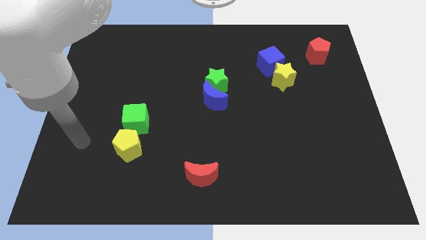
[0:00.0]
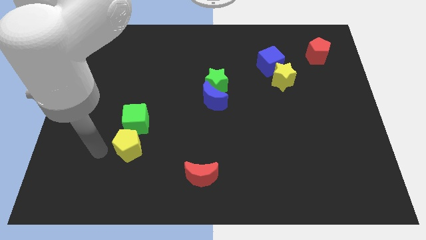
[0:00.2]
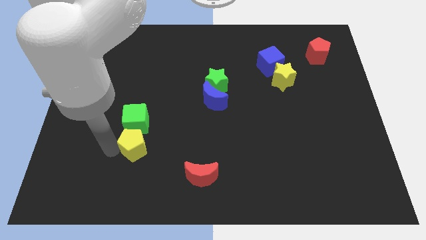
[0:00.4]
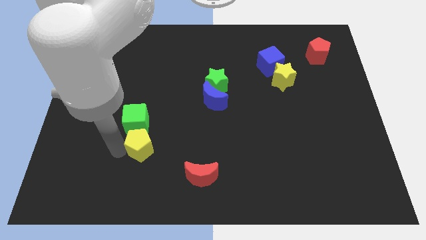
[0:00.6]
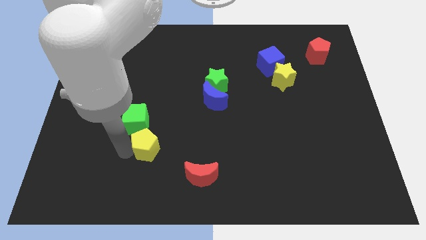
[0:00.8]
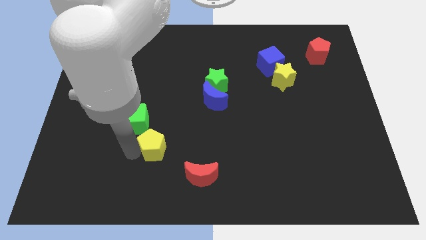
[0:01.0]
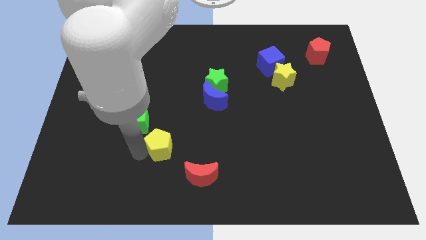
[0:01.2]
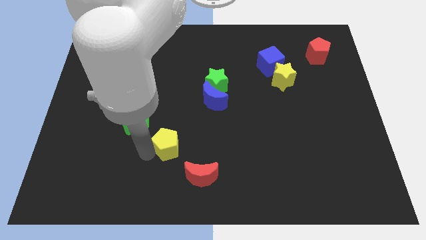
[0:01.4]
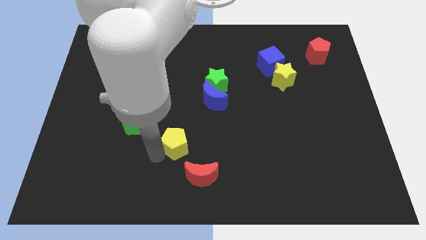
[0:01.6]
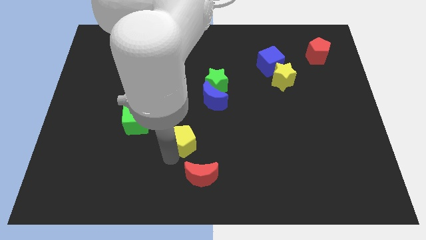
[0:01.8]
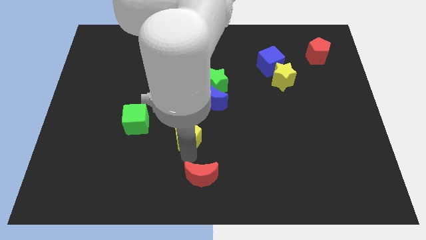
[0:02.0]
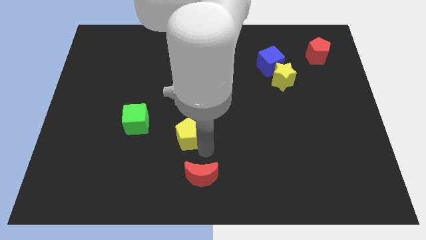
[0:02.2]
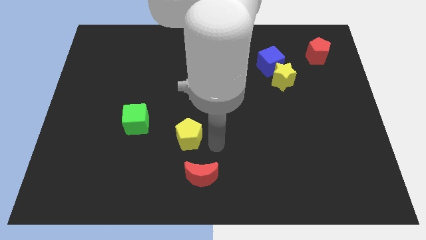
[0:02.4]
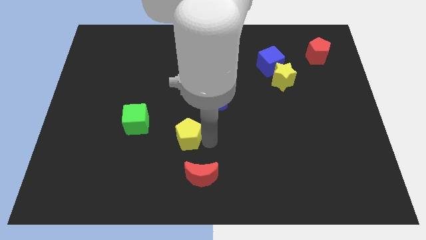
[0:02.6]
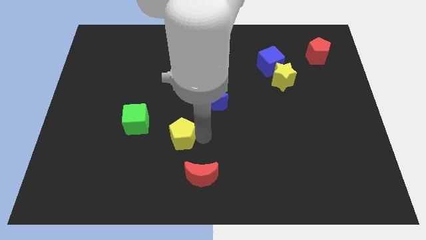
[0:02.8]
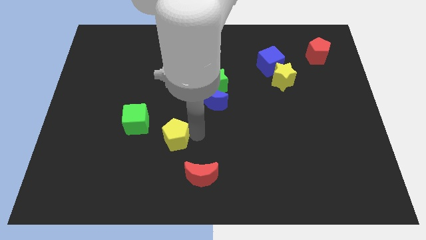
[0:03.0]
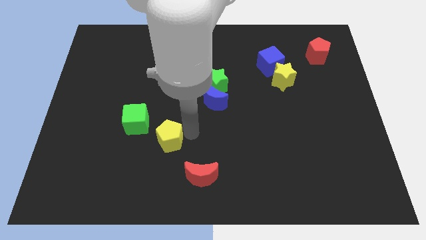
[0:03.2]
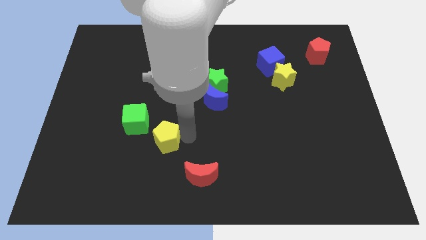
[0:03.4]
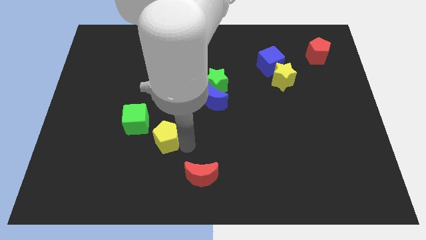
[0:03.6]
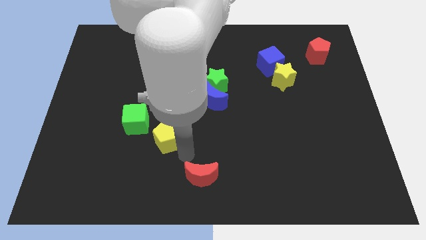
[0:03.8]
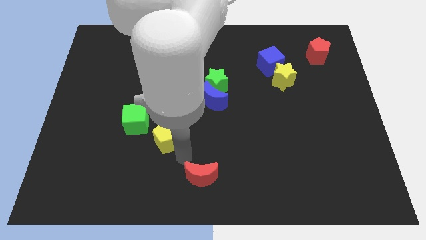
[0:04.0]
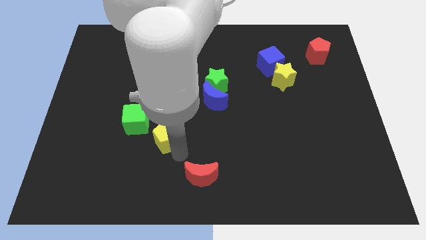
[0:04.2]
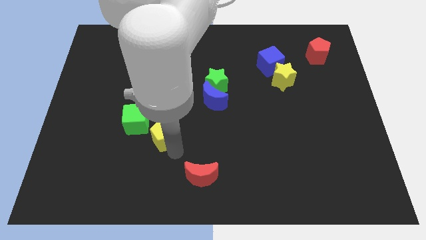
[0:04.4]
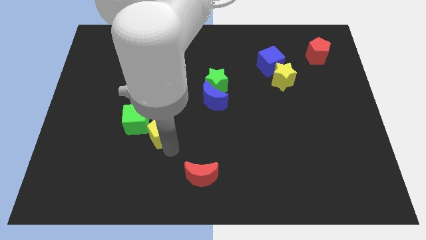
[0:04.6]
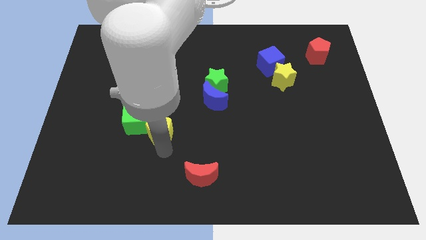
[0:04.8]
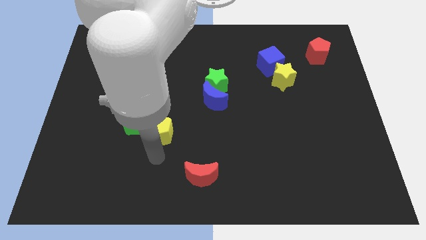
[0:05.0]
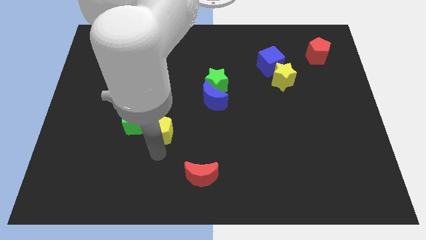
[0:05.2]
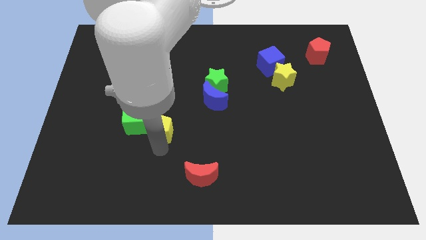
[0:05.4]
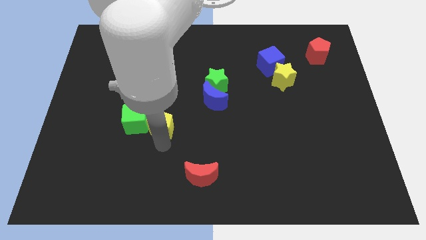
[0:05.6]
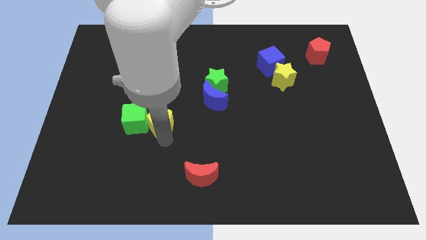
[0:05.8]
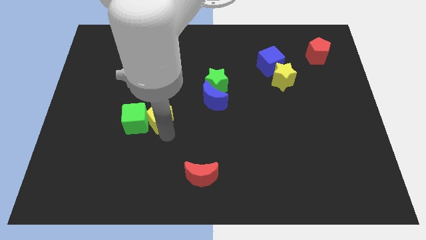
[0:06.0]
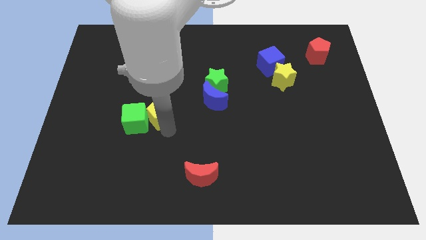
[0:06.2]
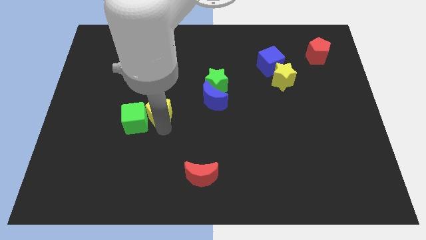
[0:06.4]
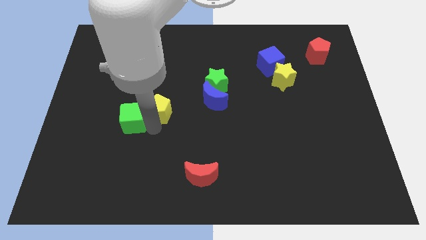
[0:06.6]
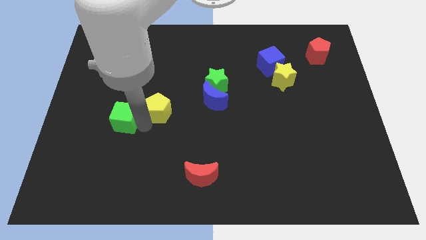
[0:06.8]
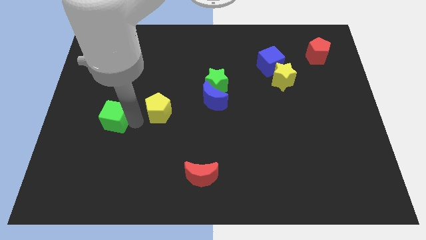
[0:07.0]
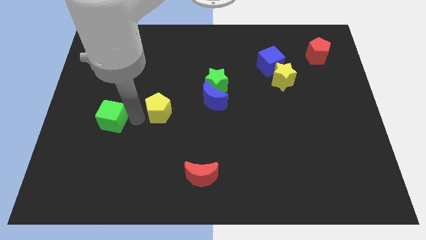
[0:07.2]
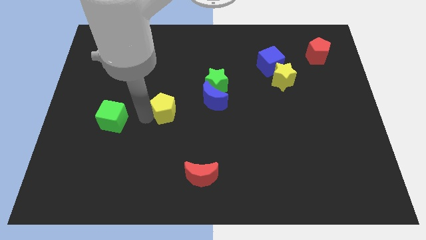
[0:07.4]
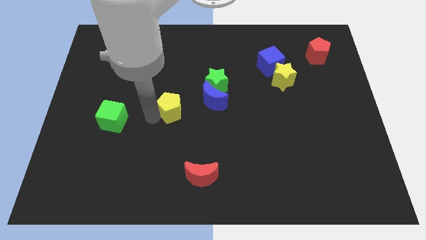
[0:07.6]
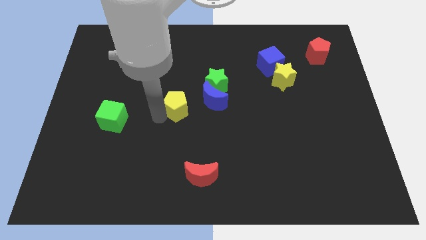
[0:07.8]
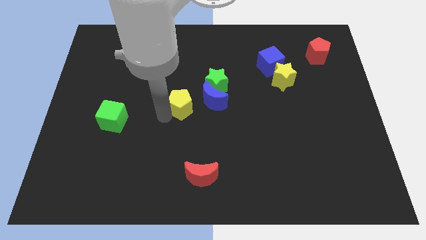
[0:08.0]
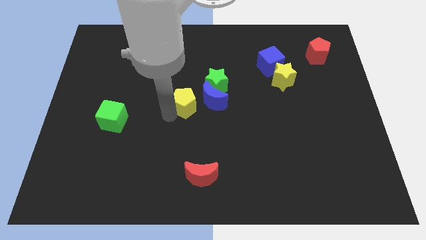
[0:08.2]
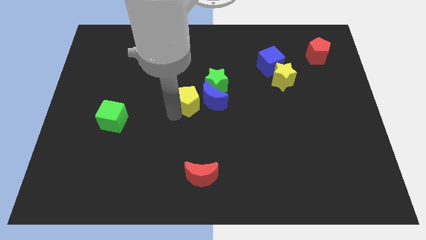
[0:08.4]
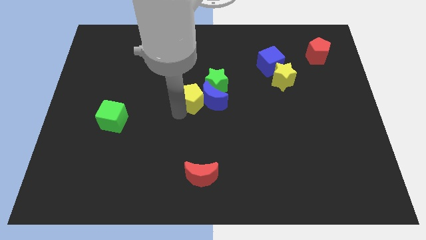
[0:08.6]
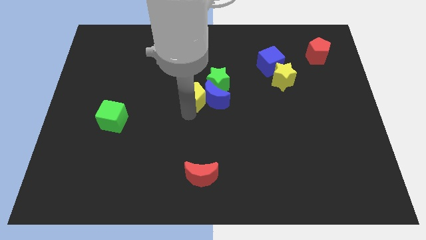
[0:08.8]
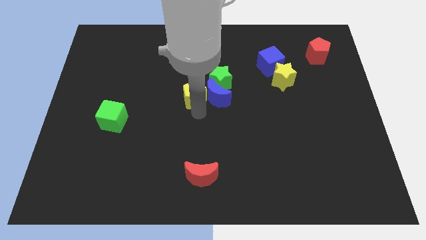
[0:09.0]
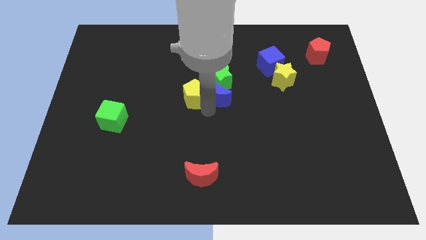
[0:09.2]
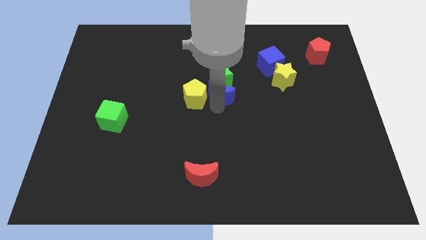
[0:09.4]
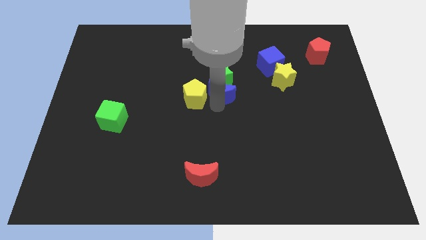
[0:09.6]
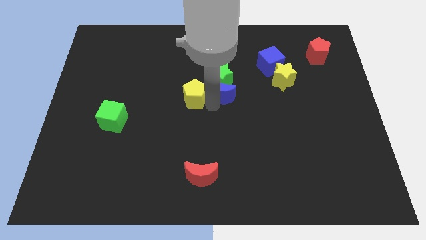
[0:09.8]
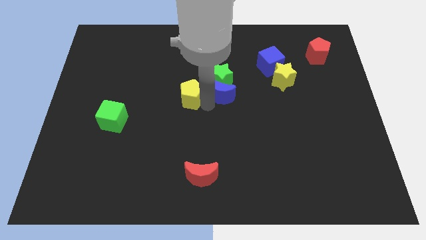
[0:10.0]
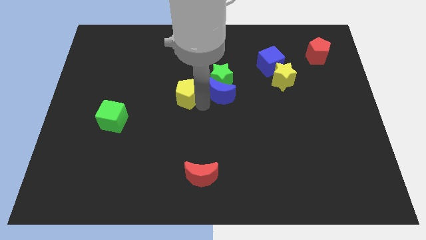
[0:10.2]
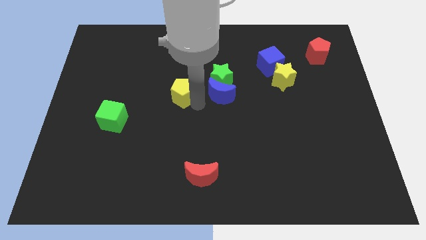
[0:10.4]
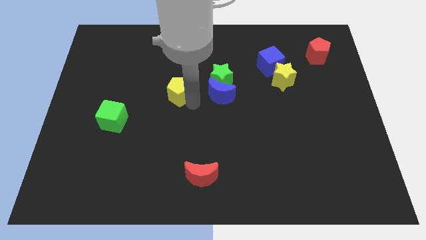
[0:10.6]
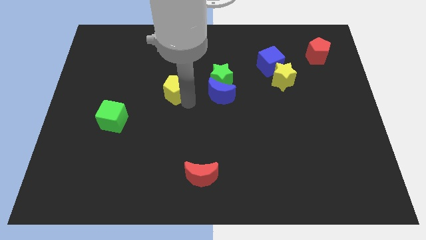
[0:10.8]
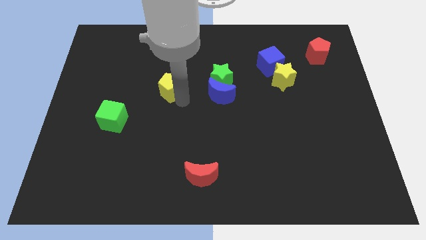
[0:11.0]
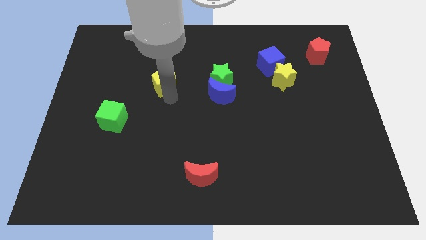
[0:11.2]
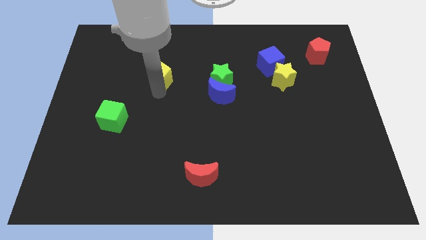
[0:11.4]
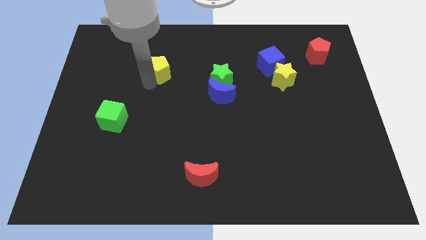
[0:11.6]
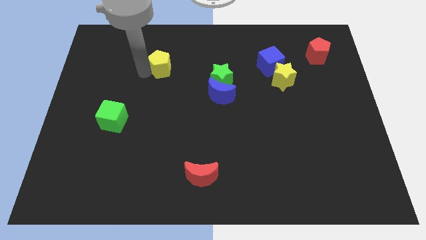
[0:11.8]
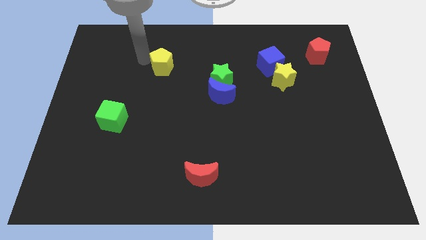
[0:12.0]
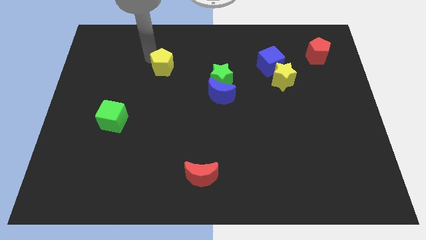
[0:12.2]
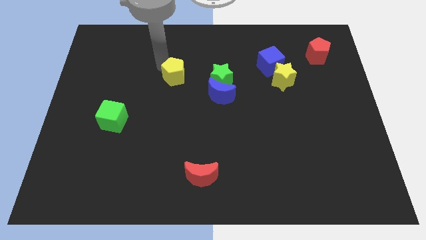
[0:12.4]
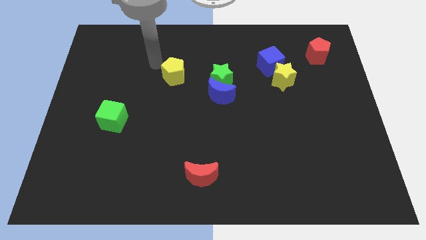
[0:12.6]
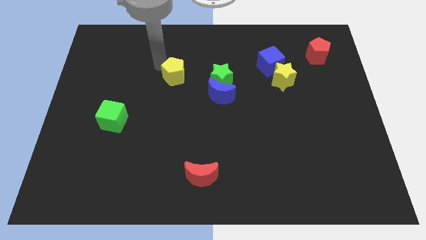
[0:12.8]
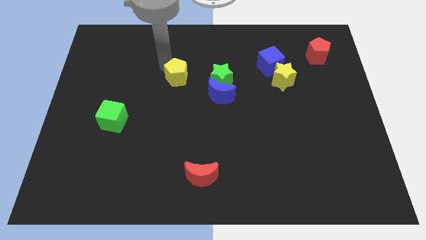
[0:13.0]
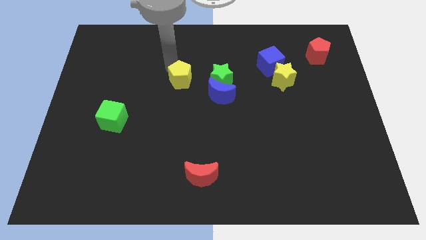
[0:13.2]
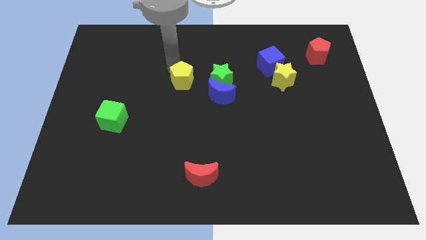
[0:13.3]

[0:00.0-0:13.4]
push the yellow pentagon diagonally upwards and to the right

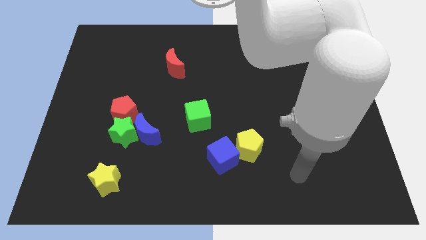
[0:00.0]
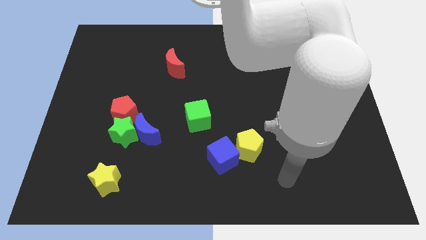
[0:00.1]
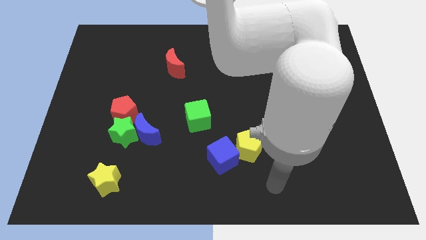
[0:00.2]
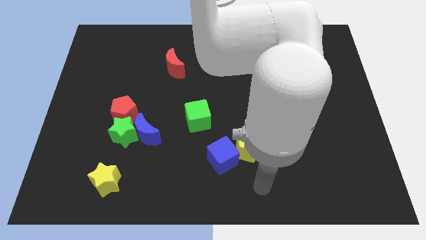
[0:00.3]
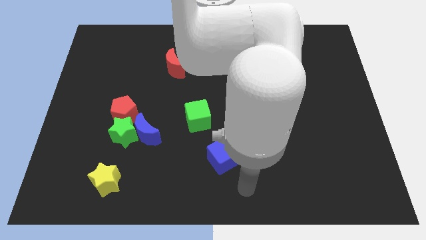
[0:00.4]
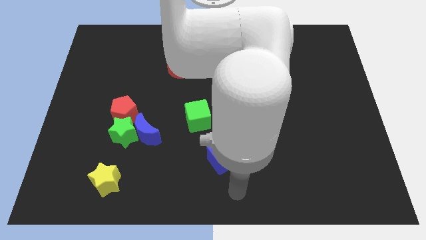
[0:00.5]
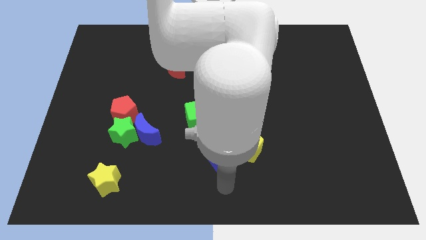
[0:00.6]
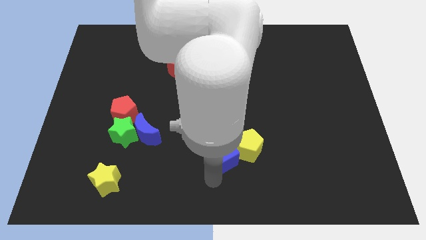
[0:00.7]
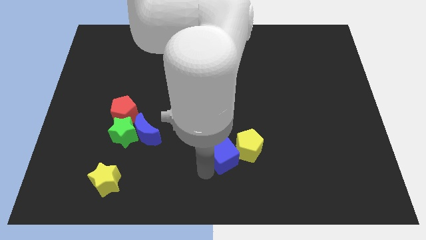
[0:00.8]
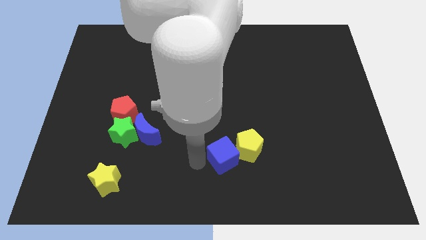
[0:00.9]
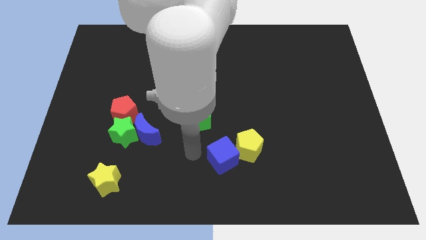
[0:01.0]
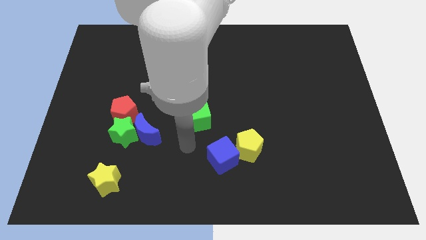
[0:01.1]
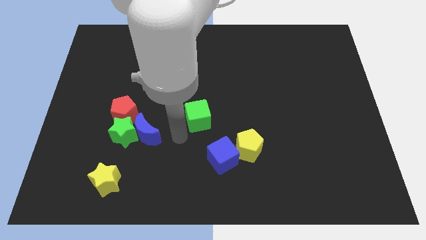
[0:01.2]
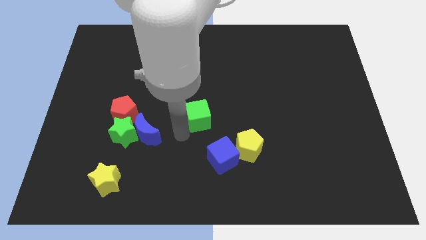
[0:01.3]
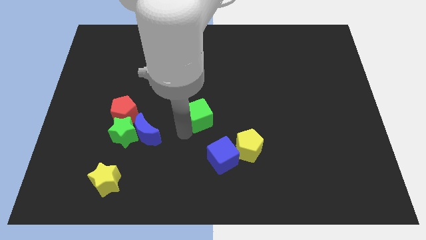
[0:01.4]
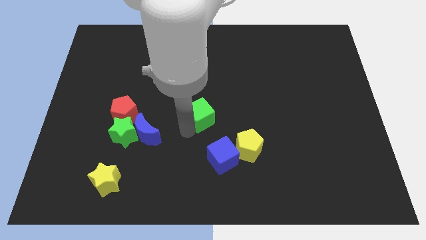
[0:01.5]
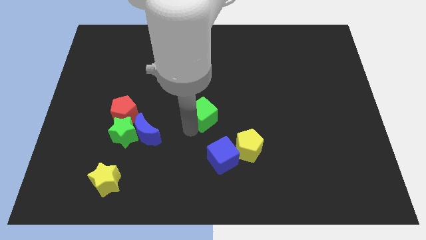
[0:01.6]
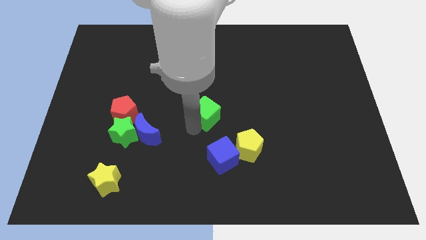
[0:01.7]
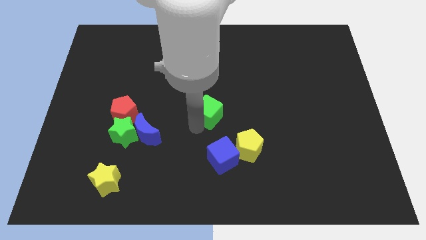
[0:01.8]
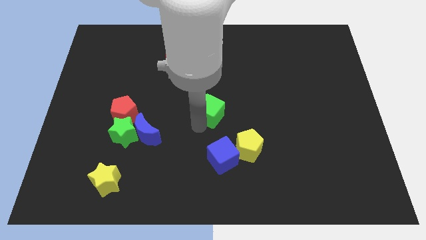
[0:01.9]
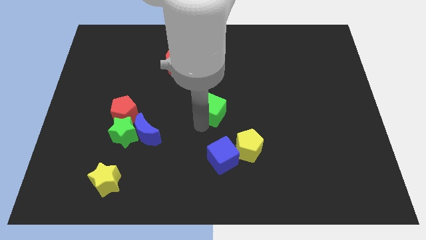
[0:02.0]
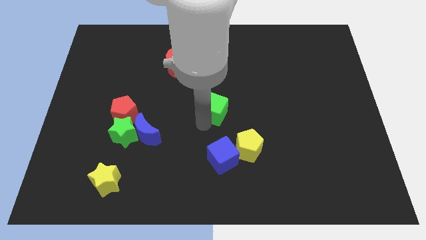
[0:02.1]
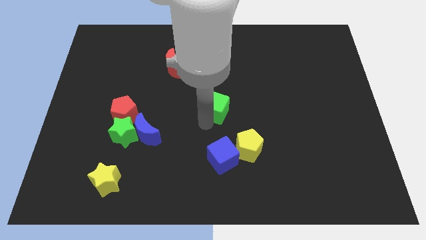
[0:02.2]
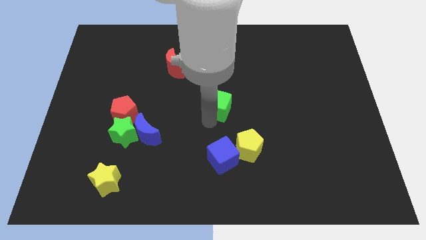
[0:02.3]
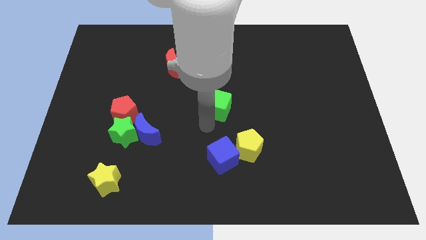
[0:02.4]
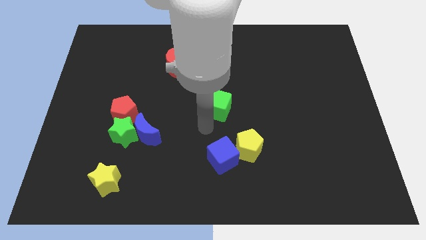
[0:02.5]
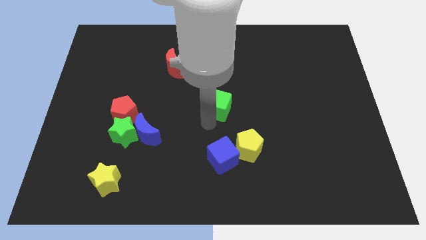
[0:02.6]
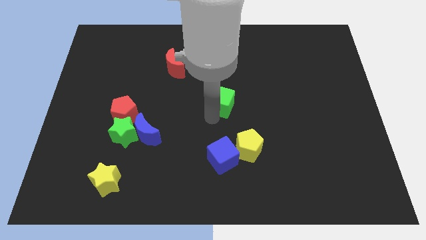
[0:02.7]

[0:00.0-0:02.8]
slide the green cube slightly up and to the right diagonally
